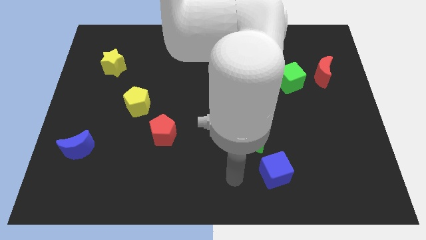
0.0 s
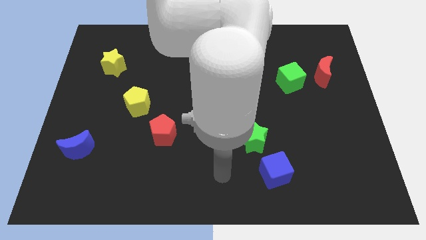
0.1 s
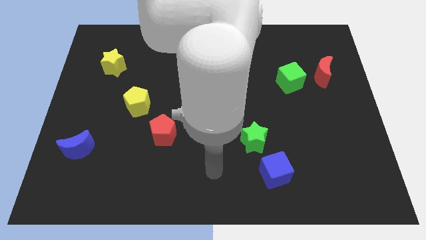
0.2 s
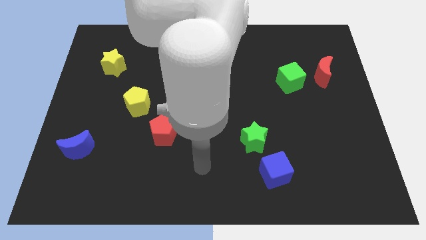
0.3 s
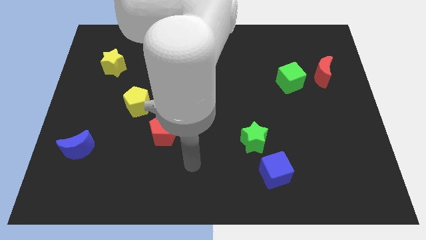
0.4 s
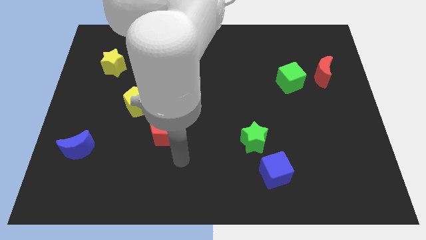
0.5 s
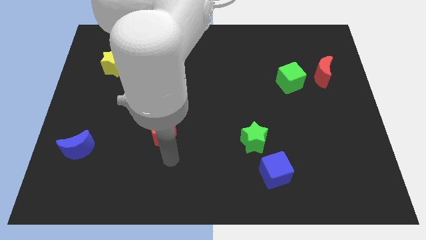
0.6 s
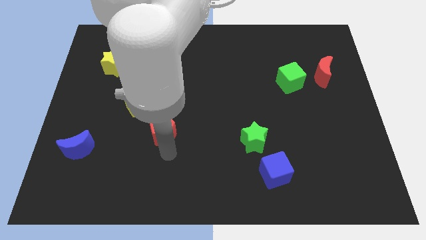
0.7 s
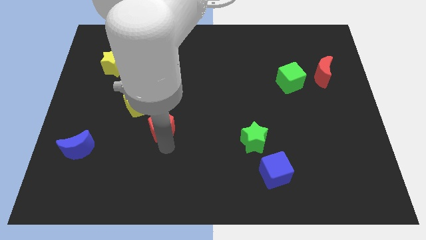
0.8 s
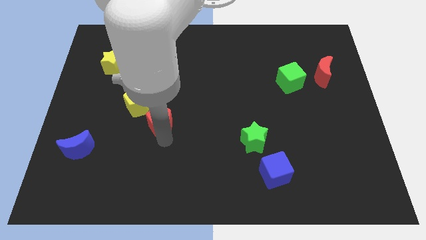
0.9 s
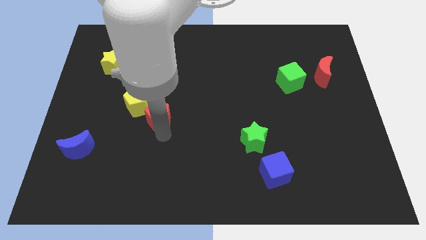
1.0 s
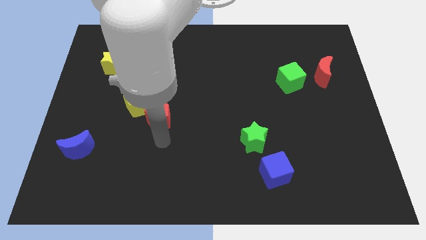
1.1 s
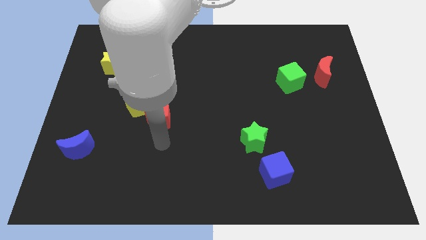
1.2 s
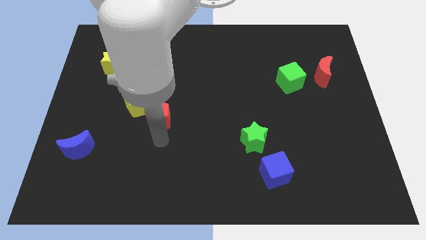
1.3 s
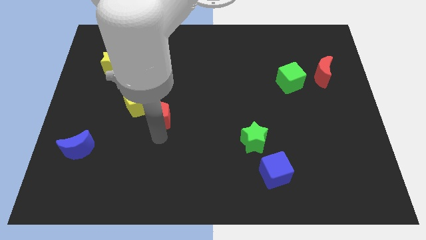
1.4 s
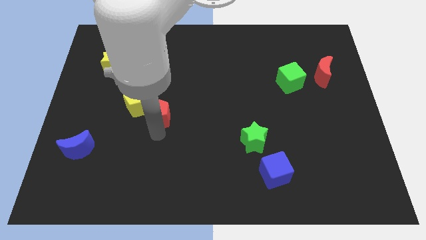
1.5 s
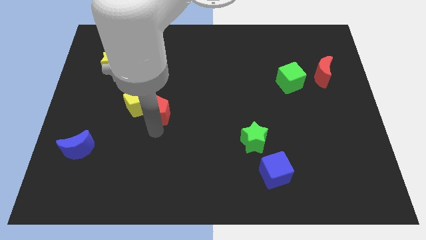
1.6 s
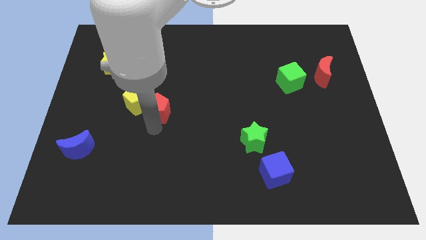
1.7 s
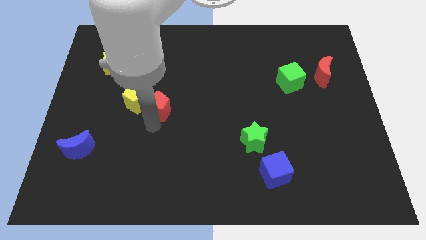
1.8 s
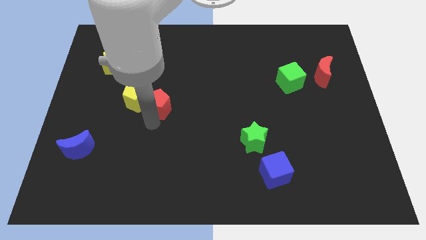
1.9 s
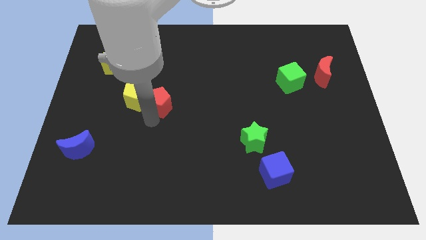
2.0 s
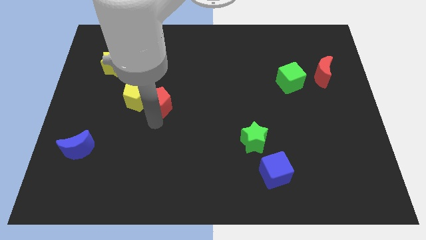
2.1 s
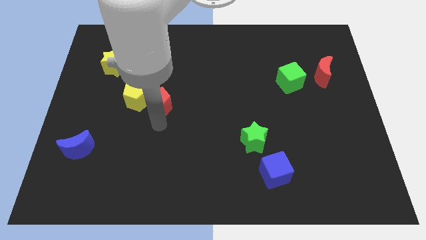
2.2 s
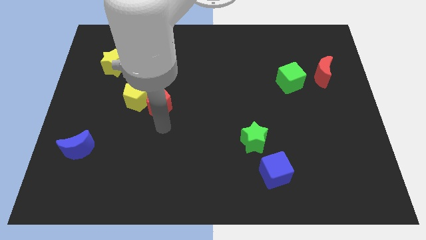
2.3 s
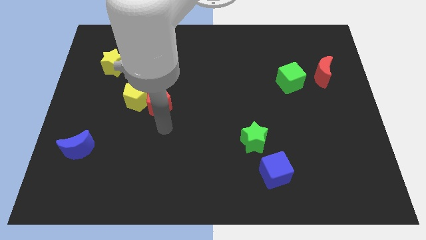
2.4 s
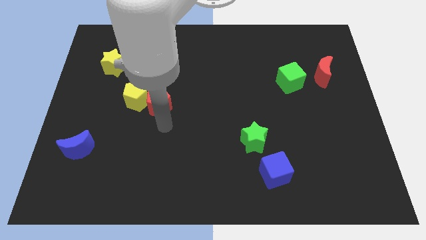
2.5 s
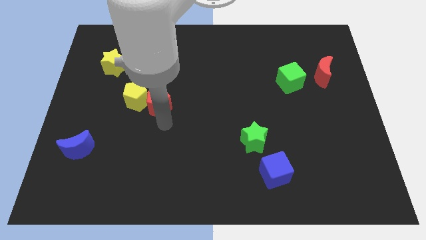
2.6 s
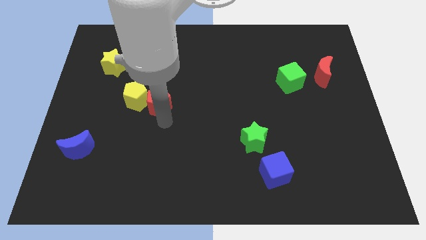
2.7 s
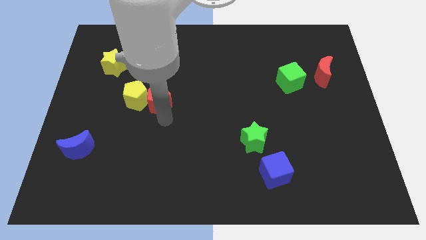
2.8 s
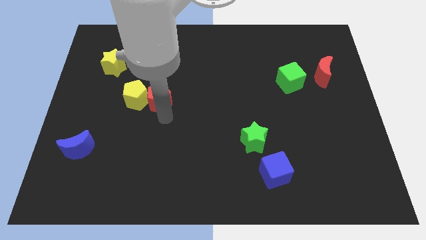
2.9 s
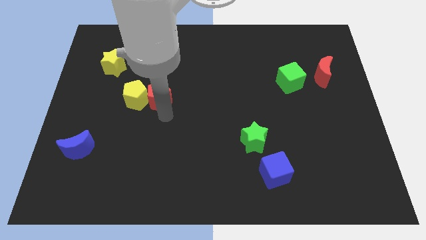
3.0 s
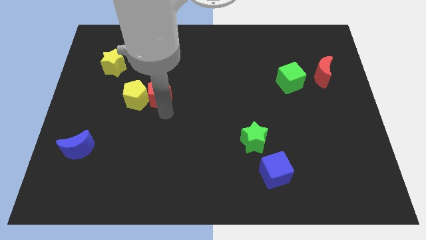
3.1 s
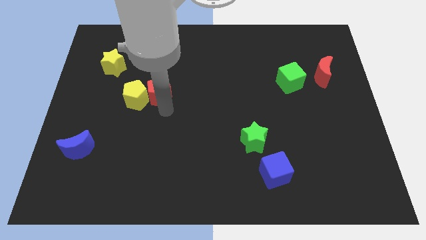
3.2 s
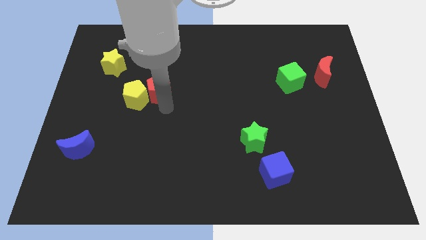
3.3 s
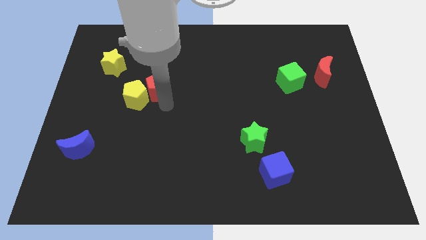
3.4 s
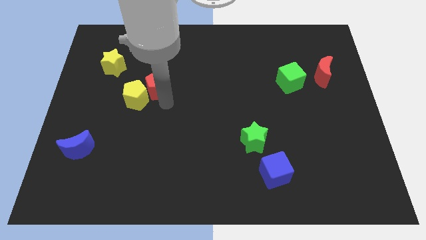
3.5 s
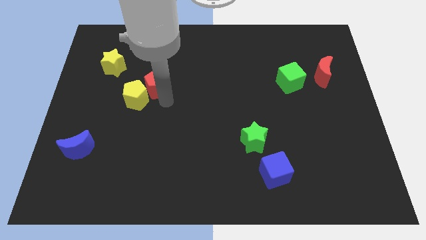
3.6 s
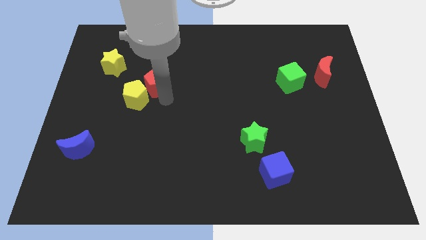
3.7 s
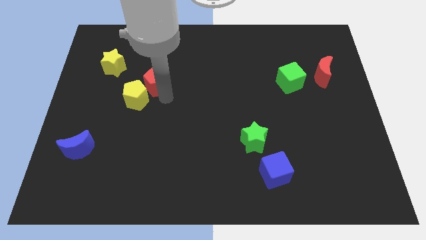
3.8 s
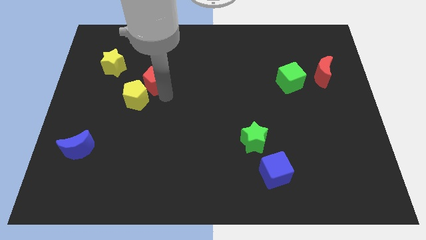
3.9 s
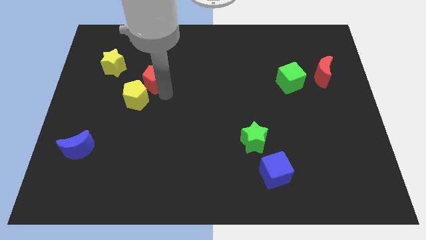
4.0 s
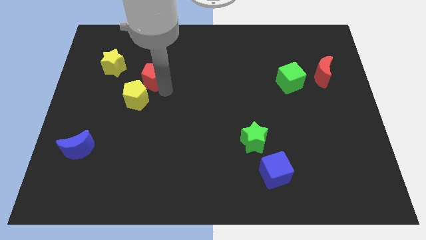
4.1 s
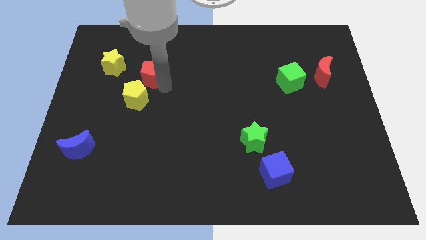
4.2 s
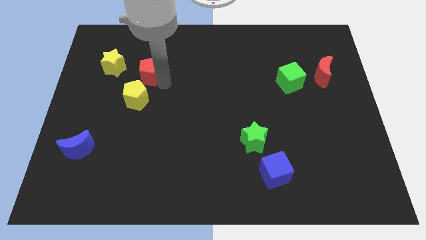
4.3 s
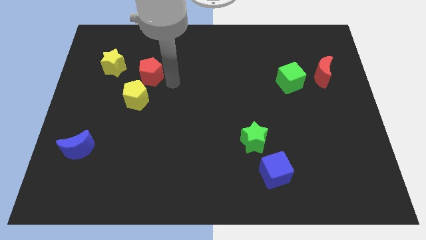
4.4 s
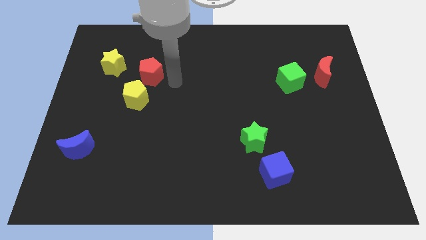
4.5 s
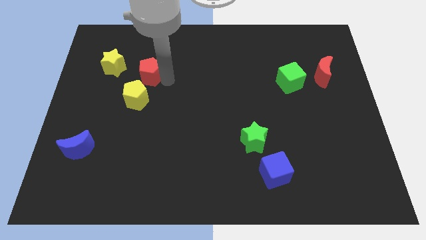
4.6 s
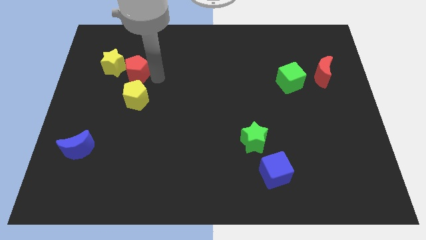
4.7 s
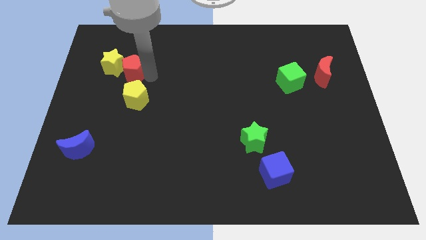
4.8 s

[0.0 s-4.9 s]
push the red pentagon next to the yellow star

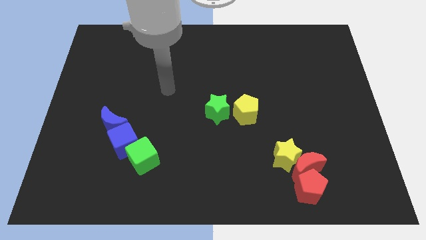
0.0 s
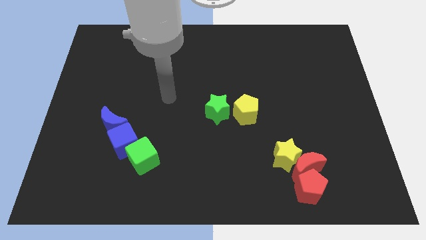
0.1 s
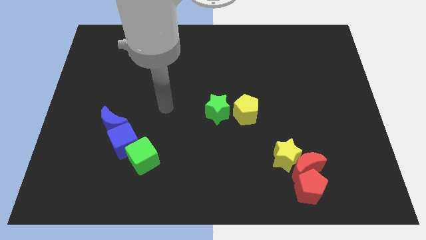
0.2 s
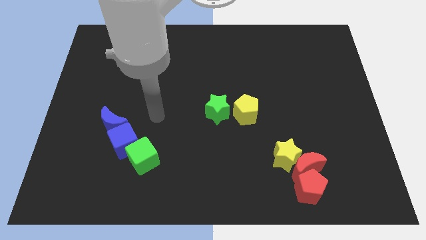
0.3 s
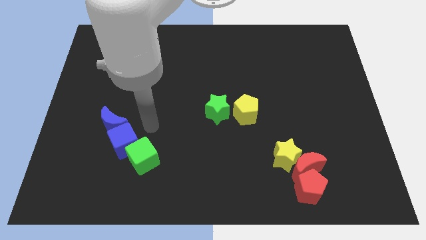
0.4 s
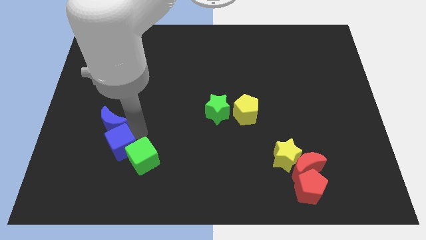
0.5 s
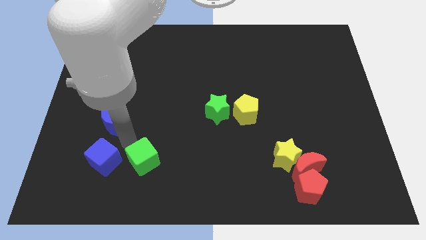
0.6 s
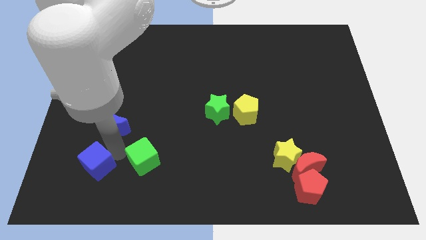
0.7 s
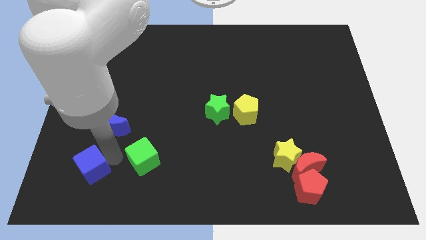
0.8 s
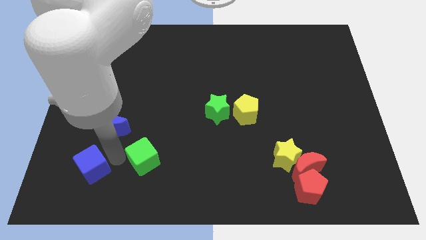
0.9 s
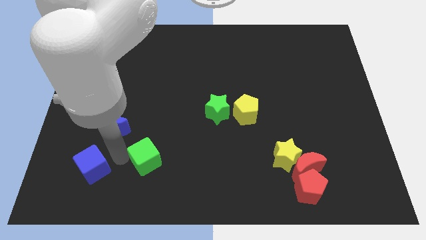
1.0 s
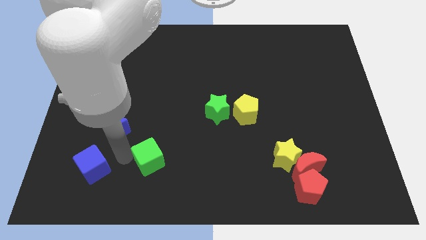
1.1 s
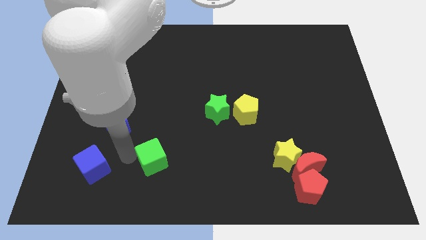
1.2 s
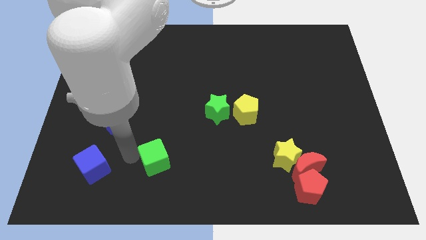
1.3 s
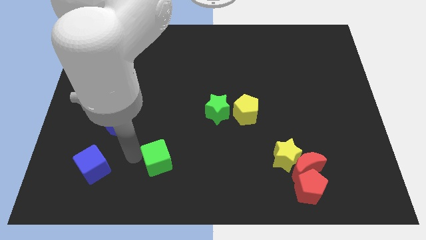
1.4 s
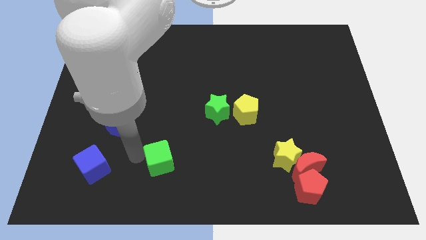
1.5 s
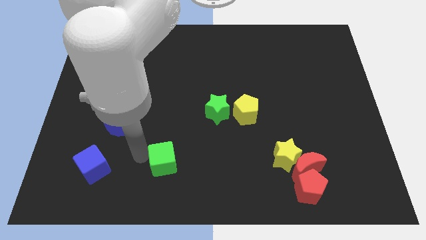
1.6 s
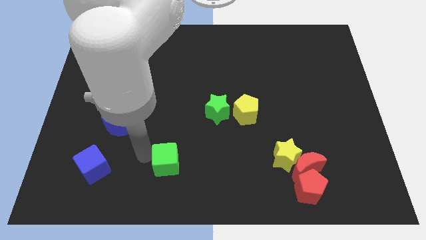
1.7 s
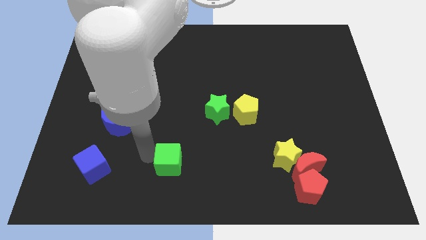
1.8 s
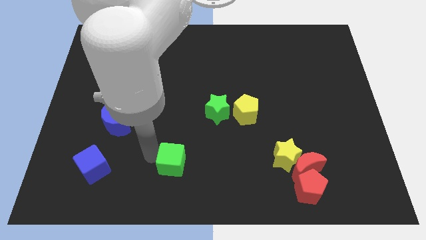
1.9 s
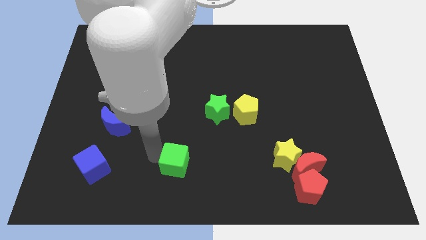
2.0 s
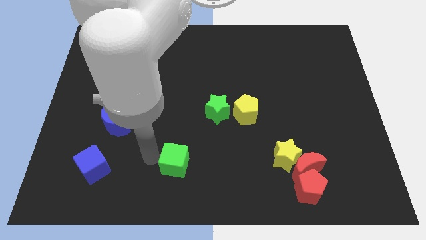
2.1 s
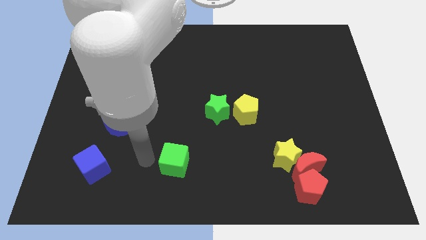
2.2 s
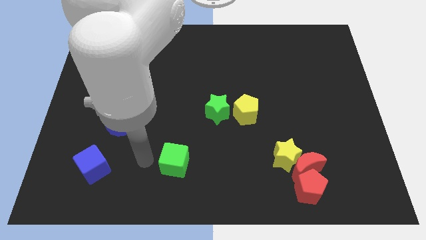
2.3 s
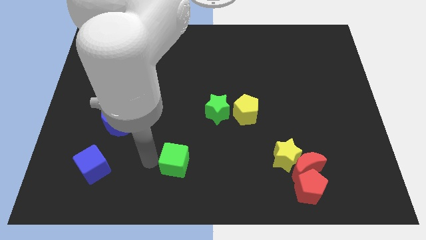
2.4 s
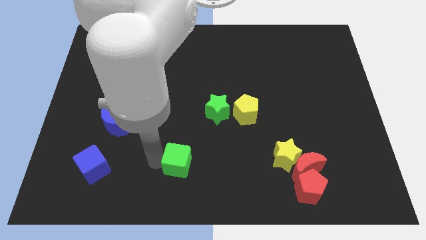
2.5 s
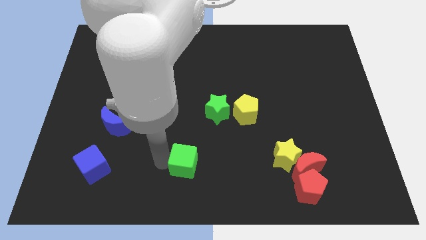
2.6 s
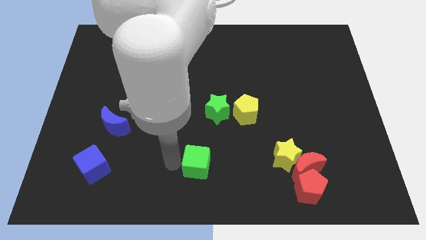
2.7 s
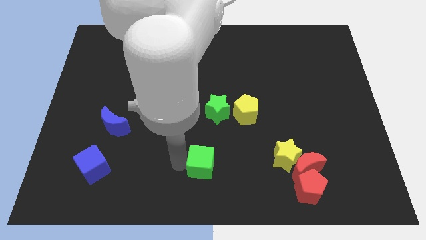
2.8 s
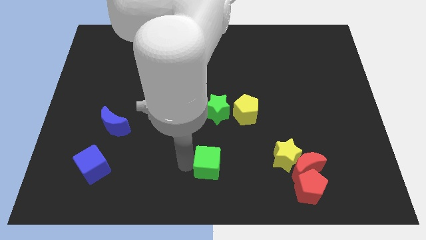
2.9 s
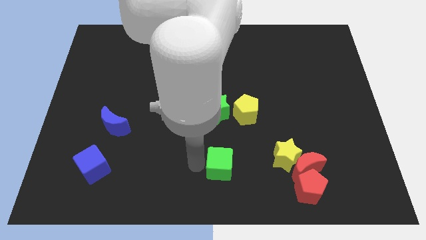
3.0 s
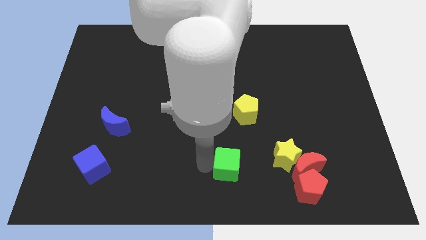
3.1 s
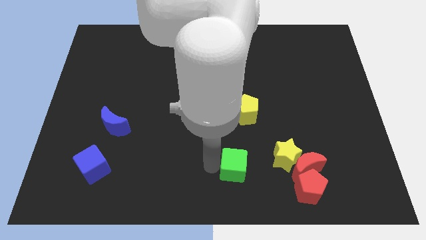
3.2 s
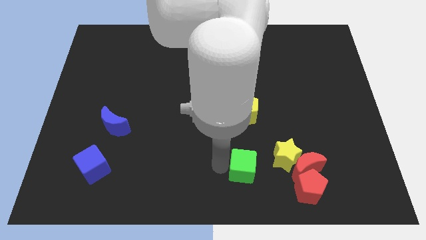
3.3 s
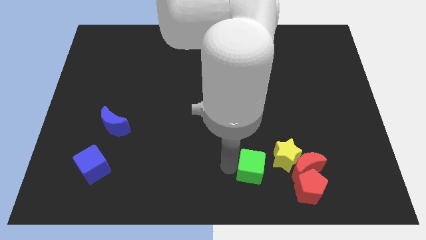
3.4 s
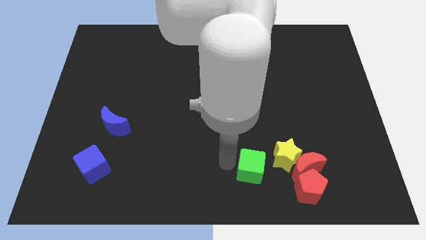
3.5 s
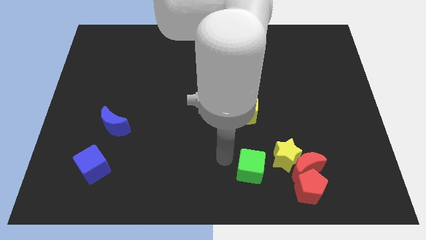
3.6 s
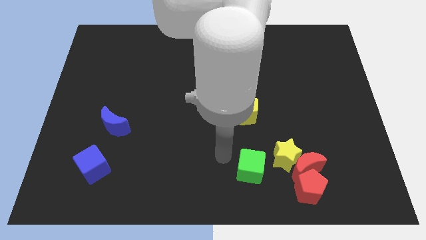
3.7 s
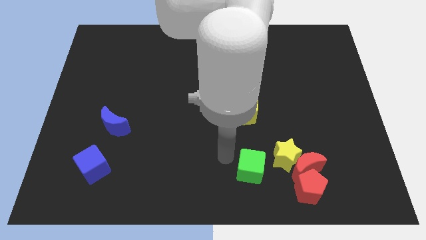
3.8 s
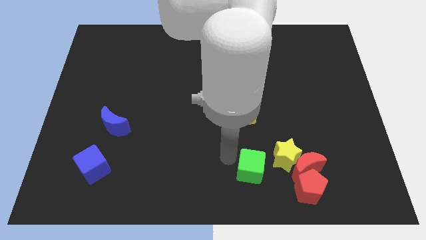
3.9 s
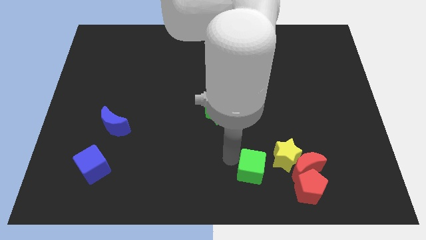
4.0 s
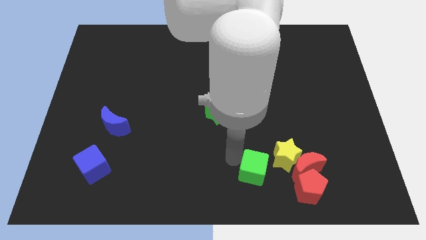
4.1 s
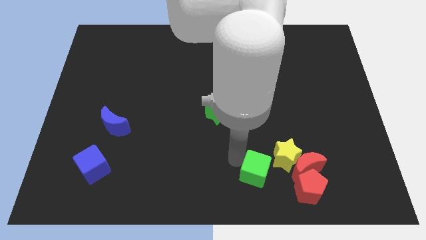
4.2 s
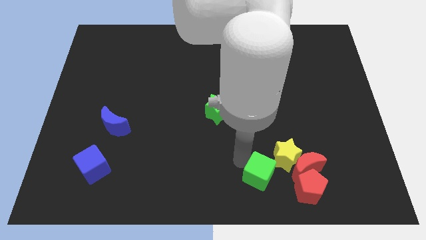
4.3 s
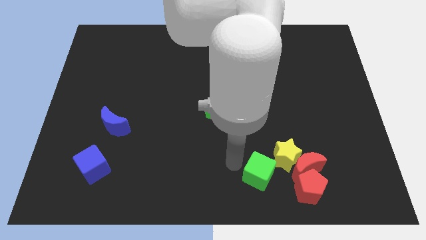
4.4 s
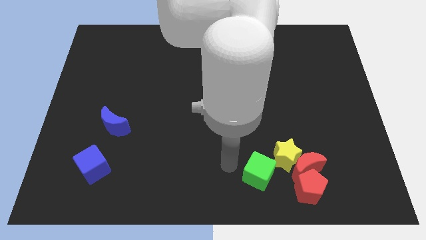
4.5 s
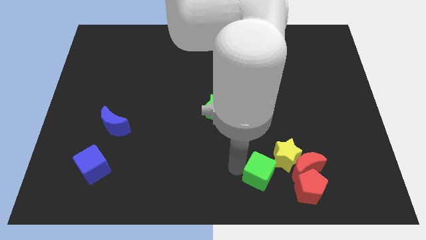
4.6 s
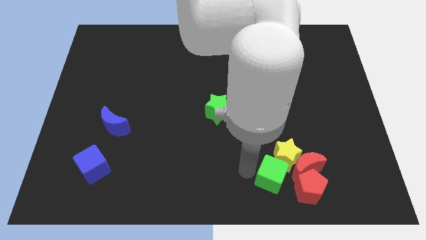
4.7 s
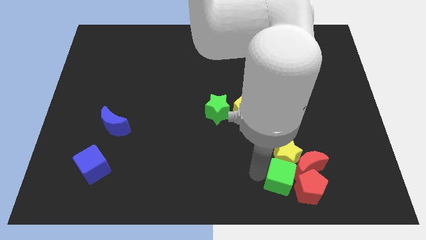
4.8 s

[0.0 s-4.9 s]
push the green cube next to the red pentagon
